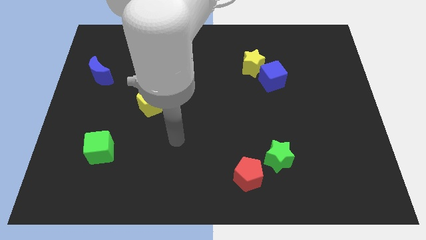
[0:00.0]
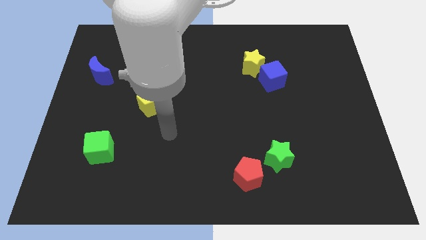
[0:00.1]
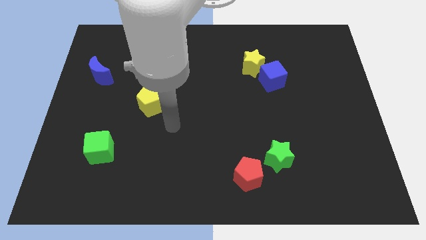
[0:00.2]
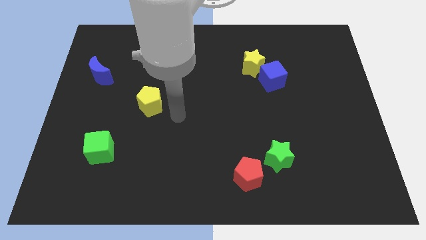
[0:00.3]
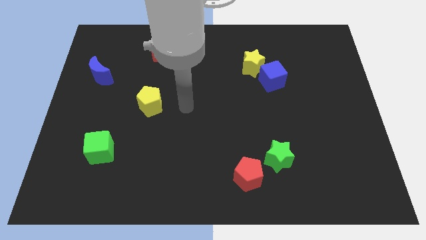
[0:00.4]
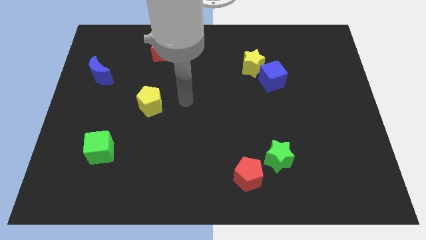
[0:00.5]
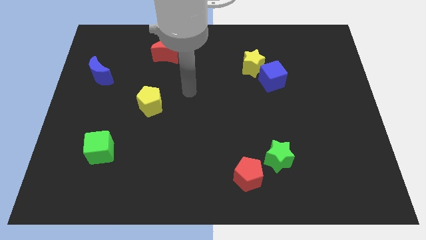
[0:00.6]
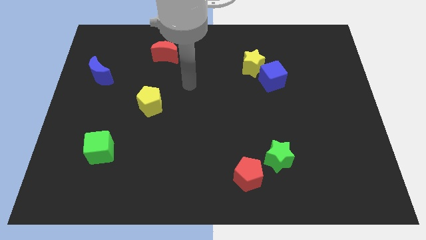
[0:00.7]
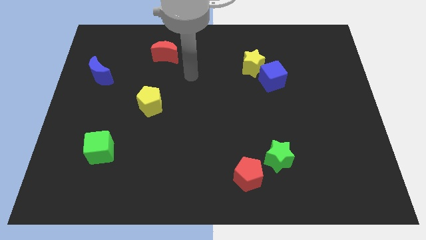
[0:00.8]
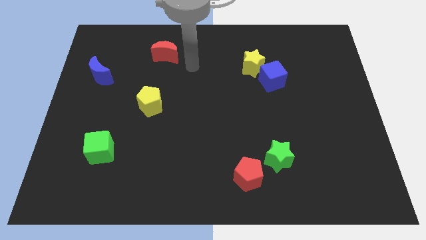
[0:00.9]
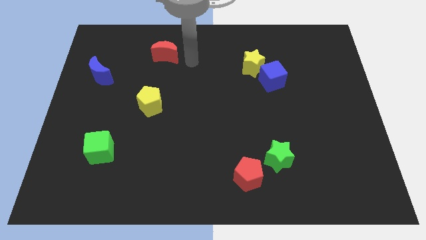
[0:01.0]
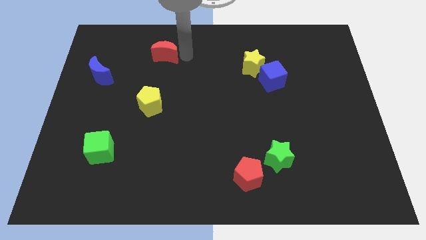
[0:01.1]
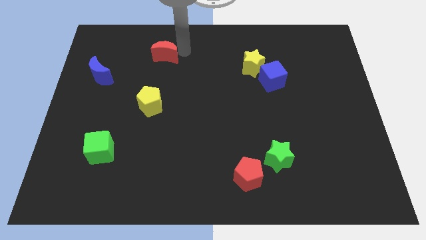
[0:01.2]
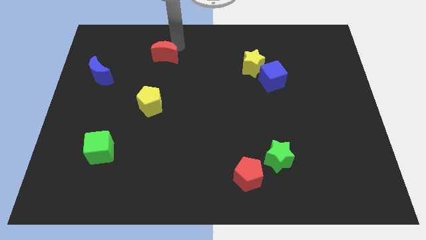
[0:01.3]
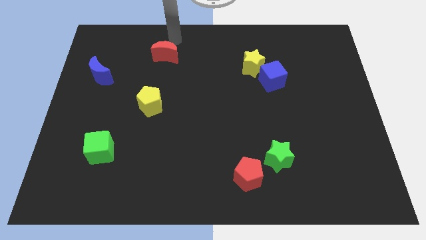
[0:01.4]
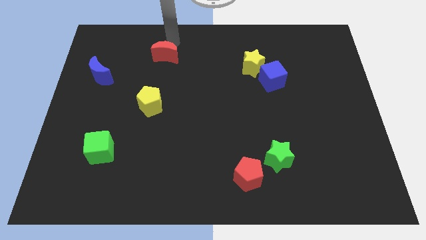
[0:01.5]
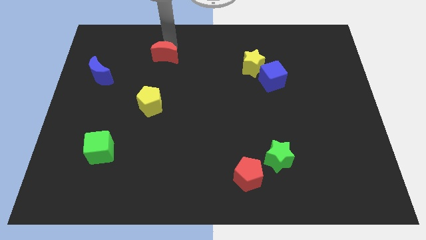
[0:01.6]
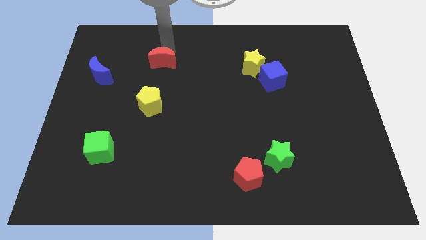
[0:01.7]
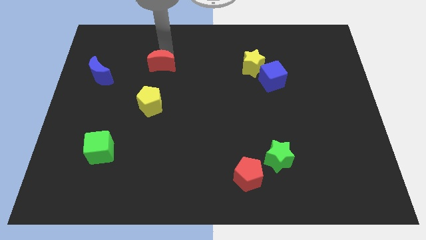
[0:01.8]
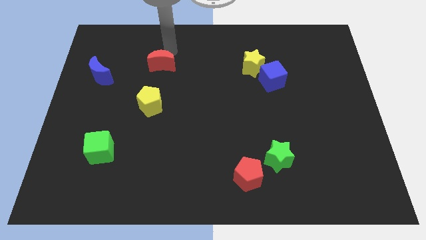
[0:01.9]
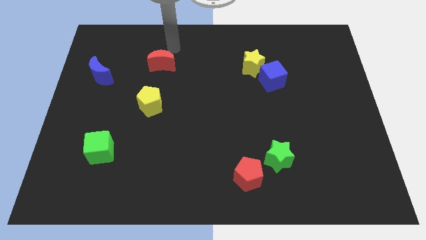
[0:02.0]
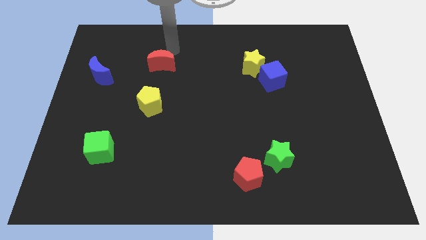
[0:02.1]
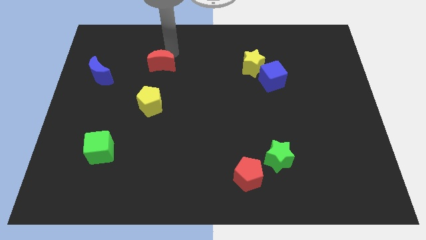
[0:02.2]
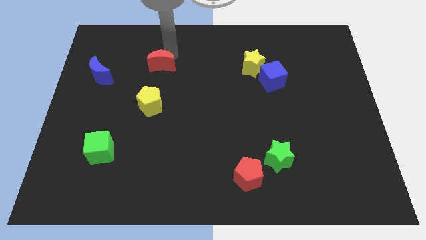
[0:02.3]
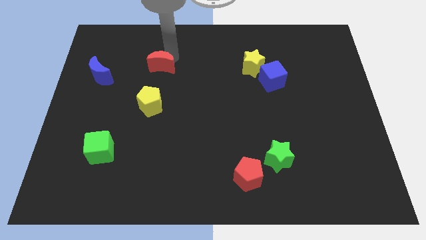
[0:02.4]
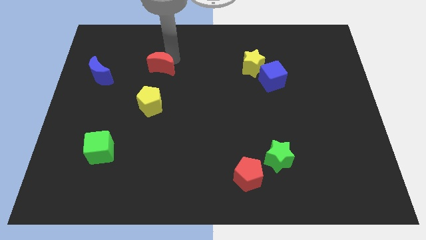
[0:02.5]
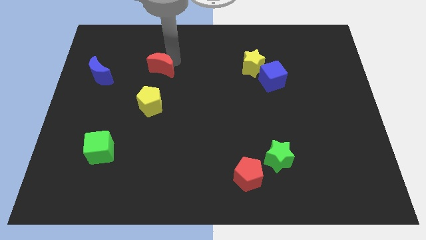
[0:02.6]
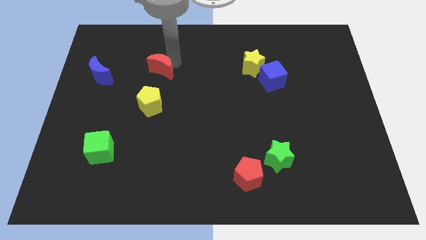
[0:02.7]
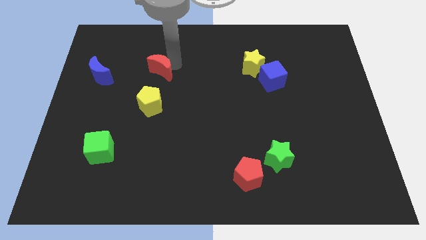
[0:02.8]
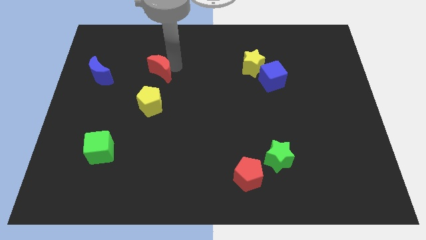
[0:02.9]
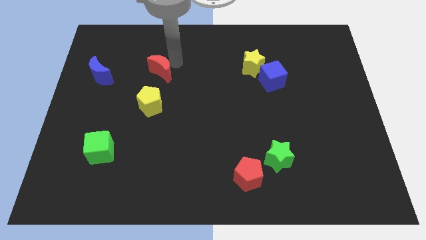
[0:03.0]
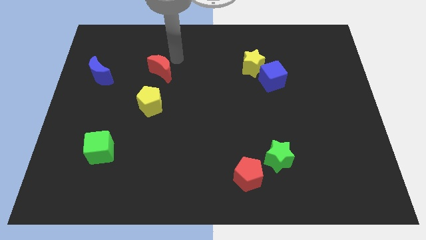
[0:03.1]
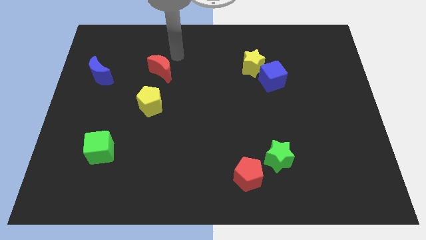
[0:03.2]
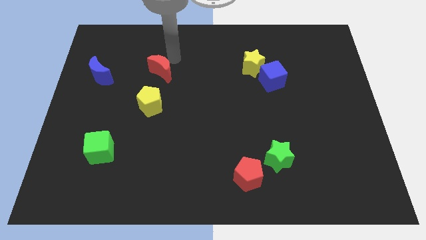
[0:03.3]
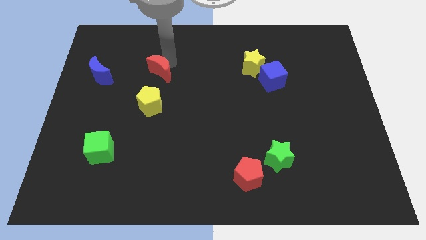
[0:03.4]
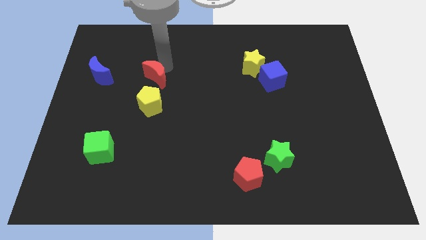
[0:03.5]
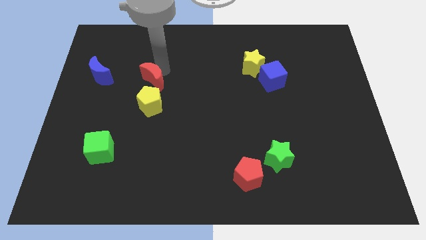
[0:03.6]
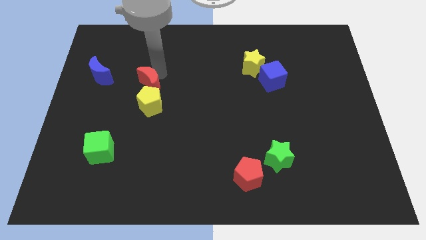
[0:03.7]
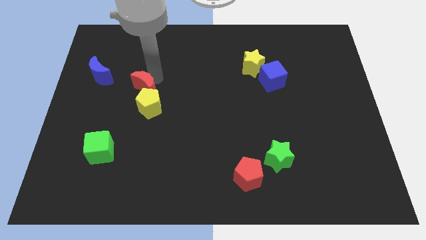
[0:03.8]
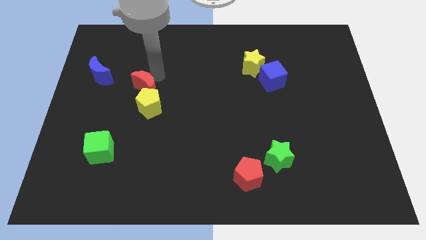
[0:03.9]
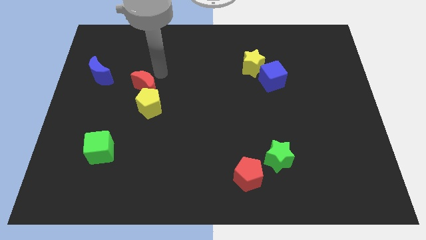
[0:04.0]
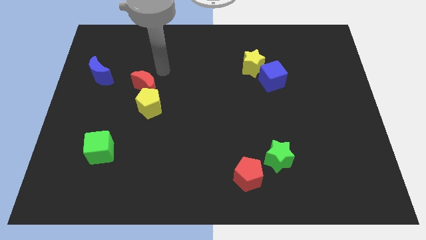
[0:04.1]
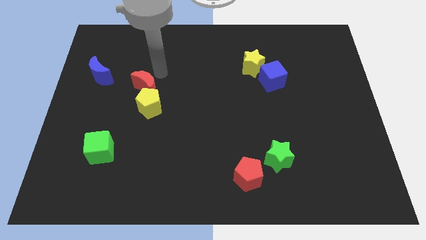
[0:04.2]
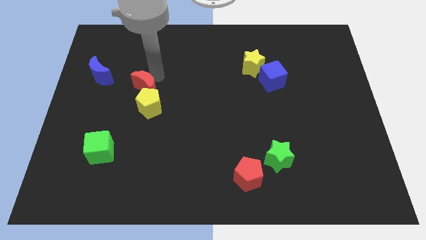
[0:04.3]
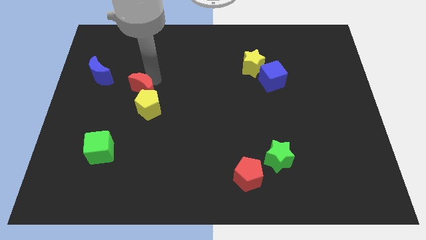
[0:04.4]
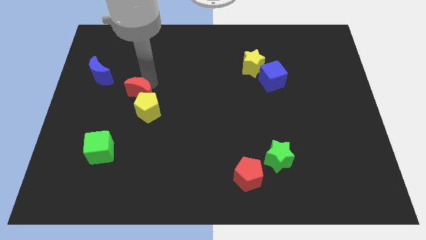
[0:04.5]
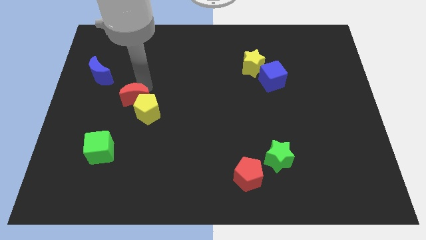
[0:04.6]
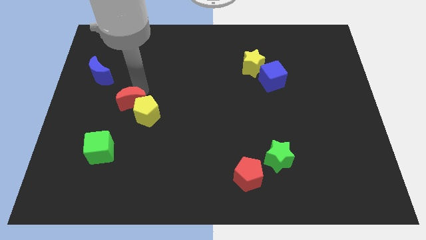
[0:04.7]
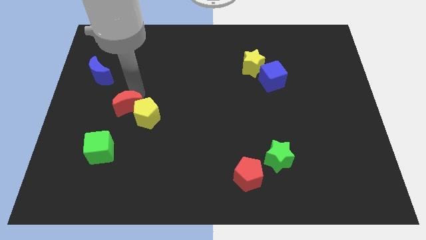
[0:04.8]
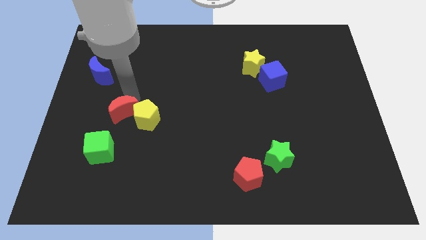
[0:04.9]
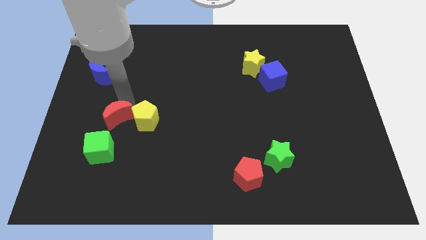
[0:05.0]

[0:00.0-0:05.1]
move the red moon diagonally up and to the right of the green cube

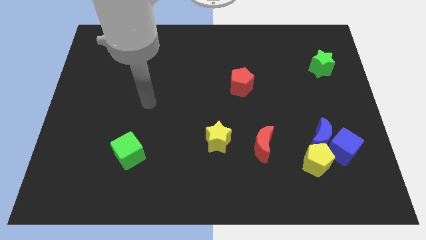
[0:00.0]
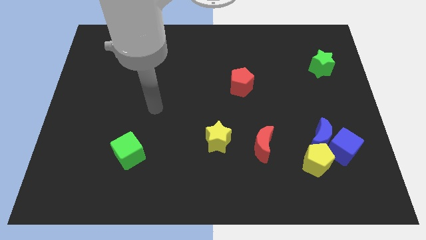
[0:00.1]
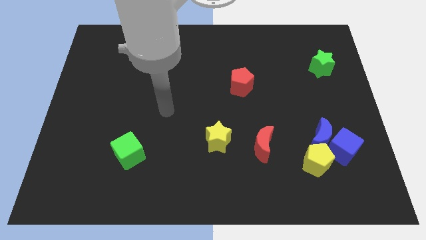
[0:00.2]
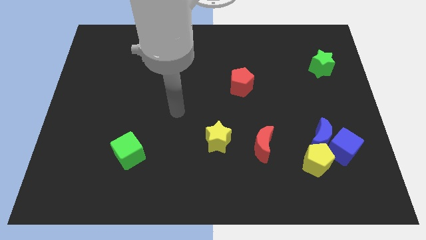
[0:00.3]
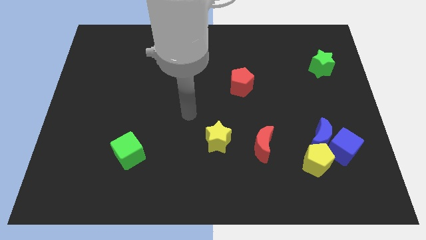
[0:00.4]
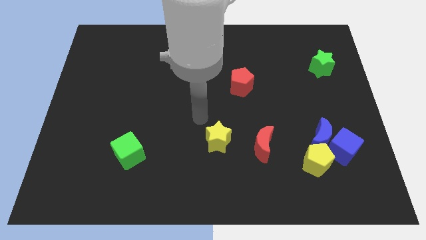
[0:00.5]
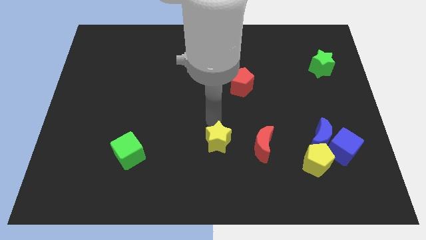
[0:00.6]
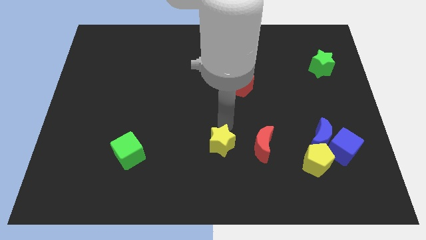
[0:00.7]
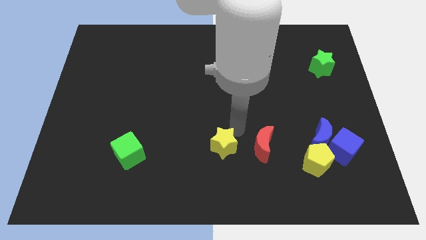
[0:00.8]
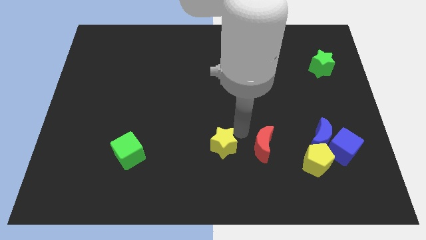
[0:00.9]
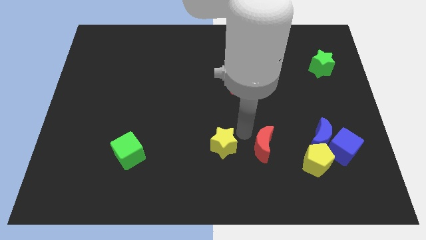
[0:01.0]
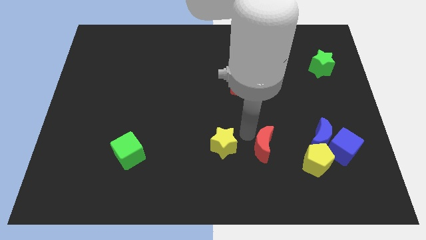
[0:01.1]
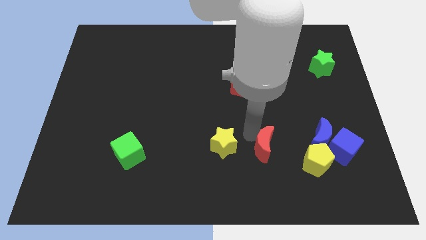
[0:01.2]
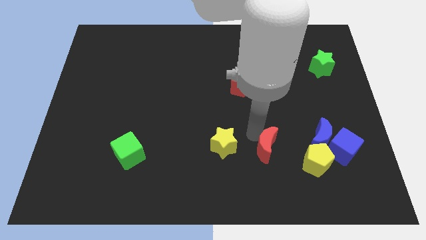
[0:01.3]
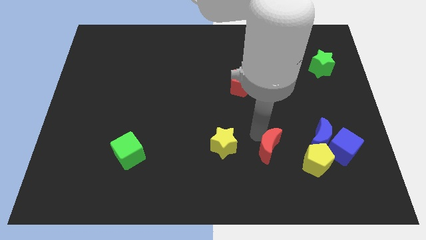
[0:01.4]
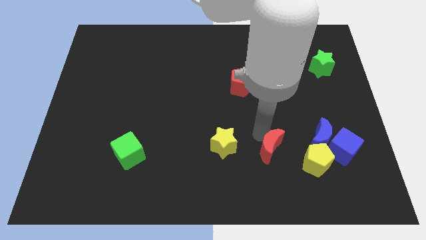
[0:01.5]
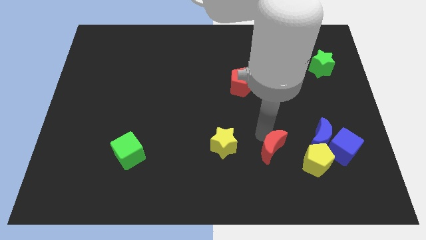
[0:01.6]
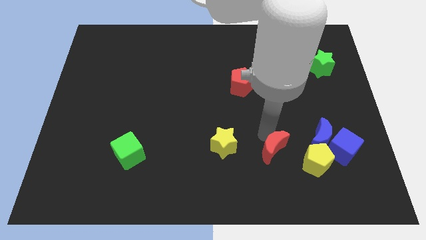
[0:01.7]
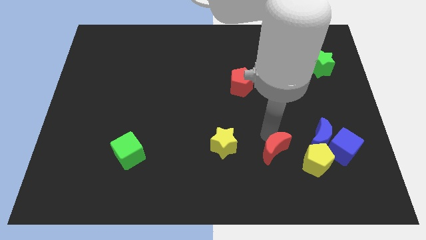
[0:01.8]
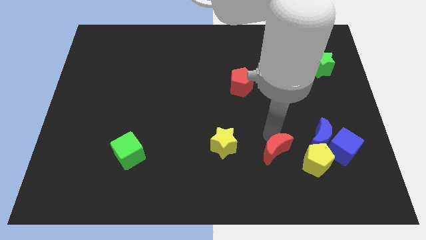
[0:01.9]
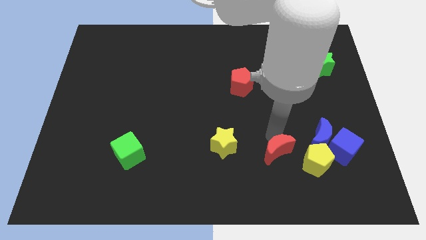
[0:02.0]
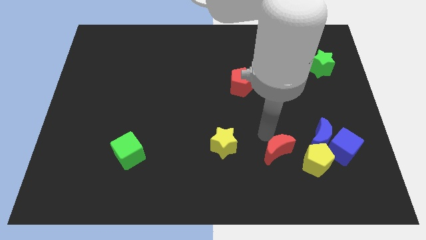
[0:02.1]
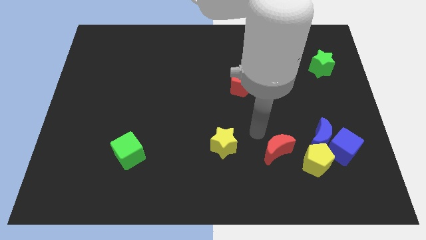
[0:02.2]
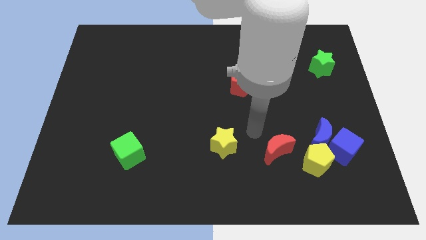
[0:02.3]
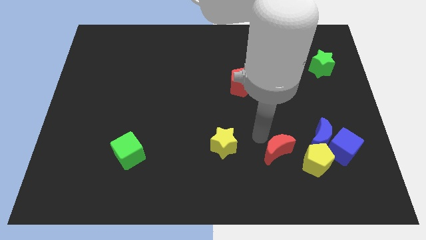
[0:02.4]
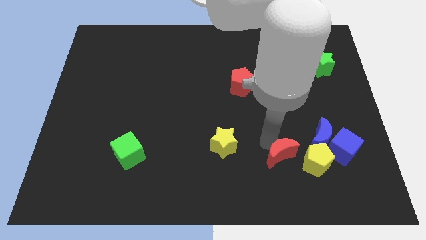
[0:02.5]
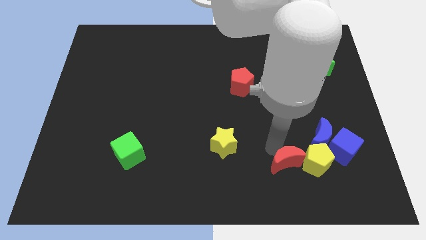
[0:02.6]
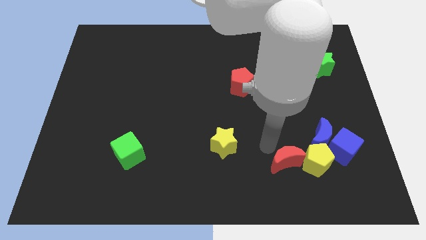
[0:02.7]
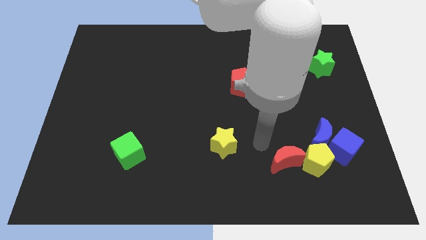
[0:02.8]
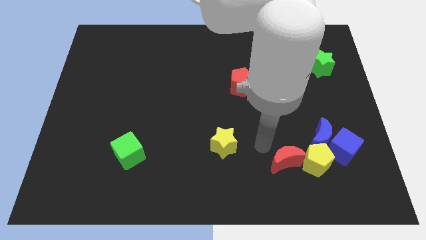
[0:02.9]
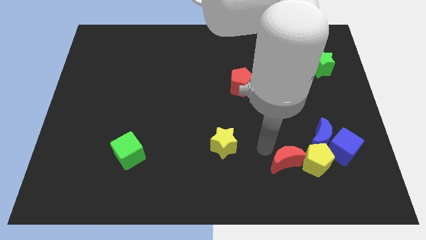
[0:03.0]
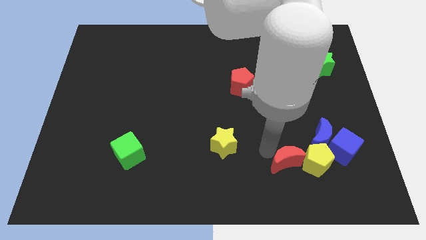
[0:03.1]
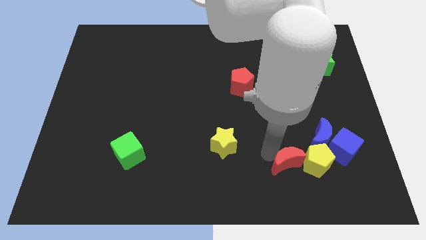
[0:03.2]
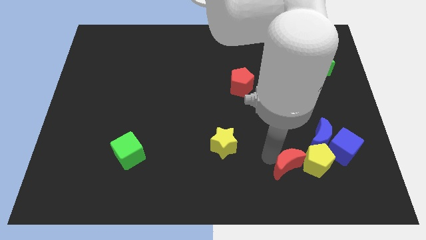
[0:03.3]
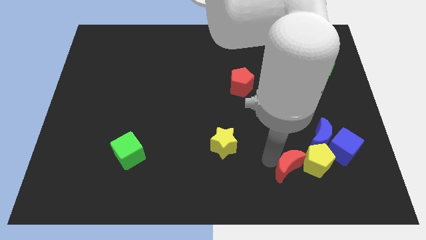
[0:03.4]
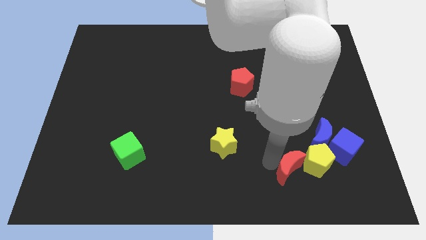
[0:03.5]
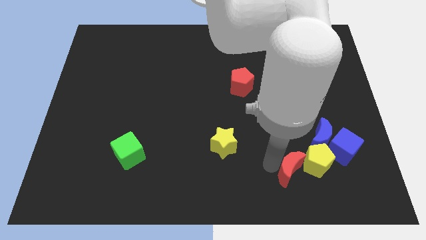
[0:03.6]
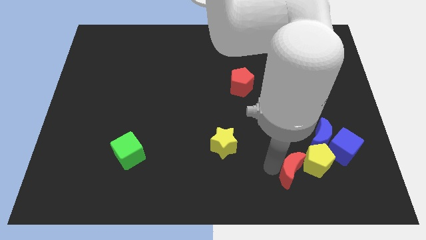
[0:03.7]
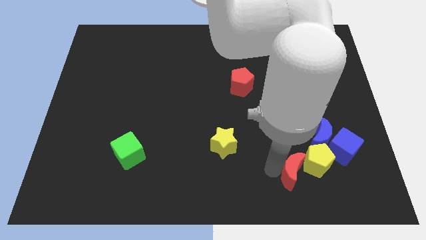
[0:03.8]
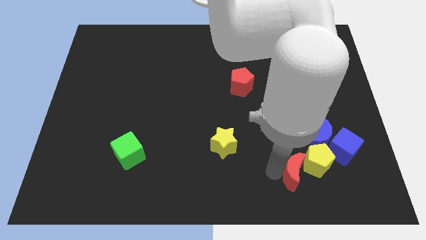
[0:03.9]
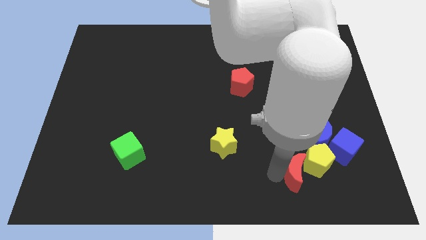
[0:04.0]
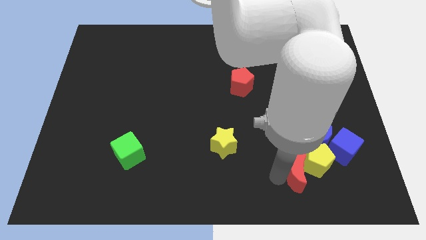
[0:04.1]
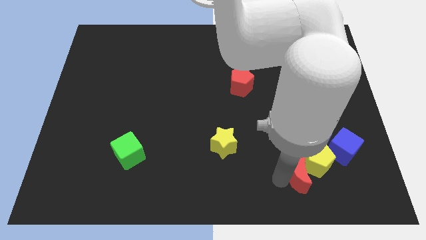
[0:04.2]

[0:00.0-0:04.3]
move the red moon to the bottom left side of the blue cube
